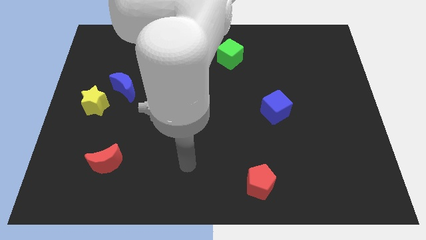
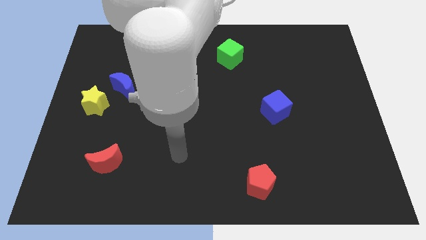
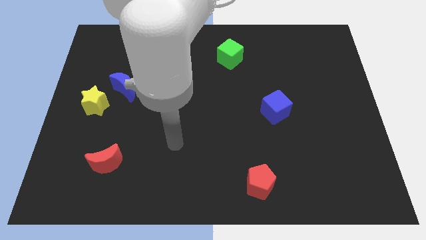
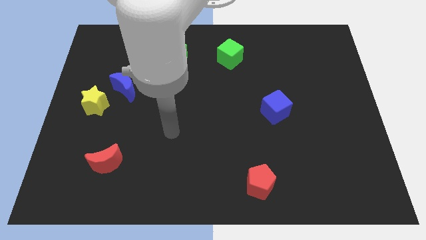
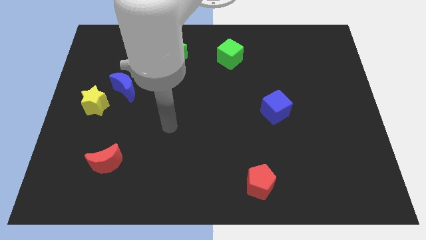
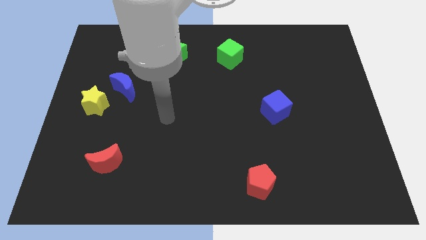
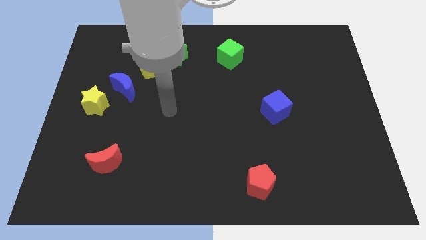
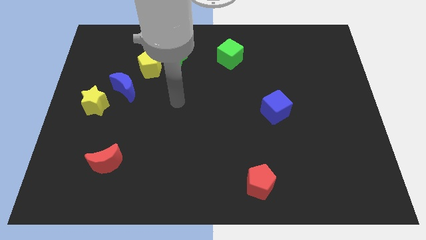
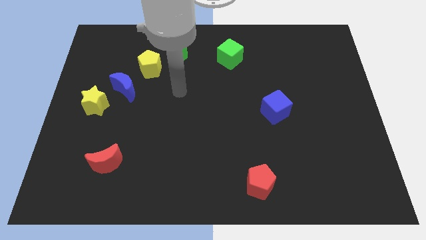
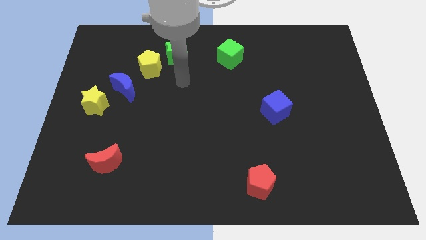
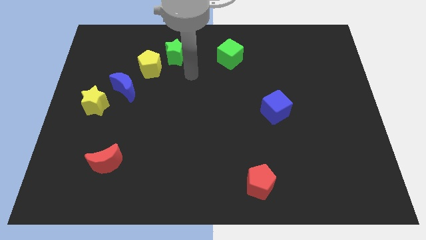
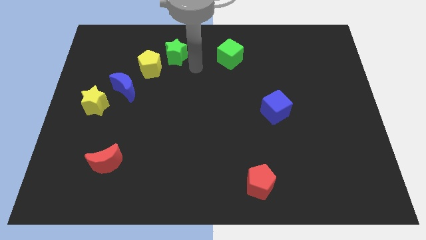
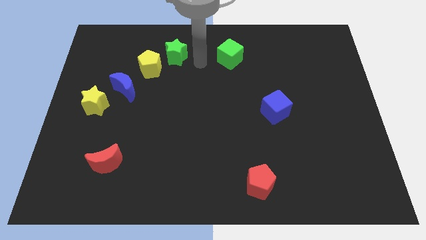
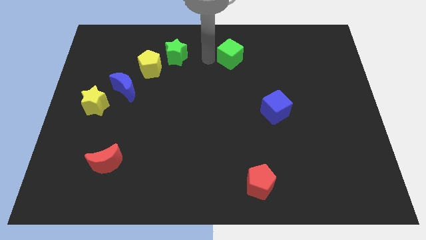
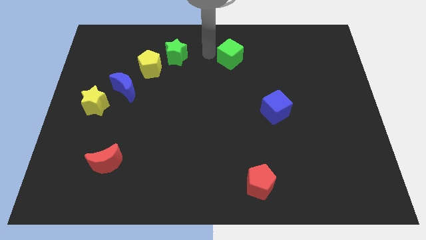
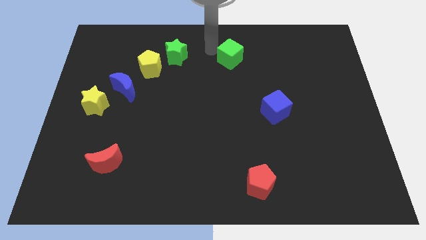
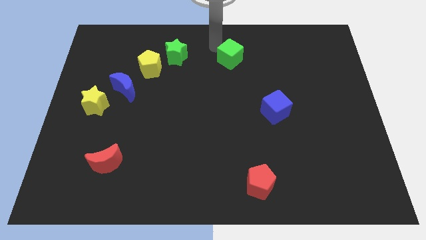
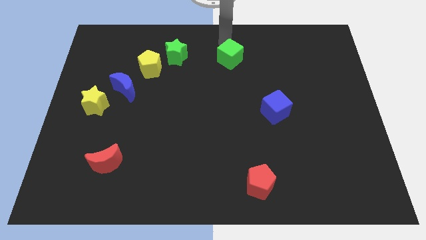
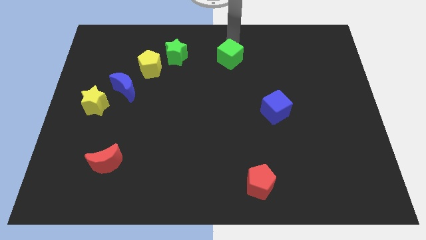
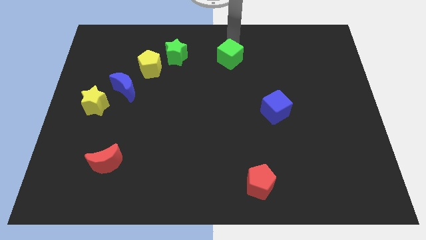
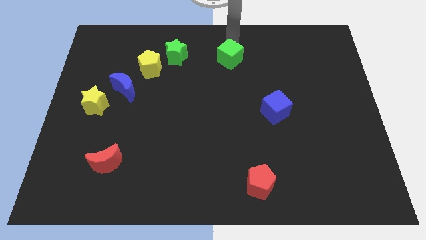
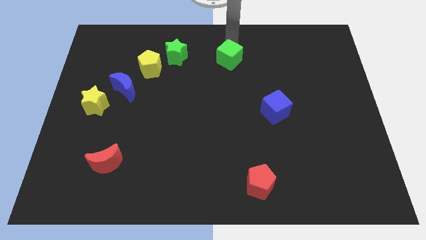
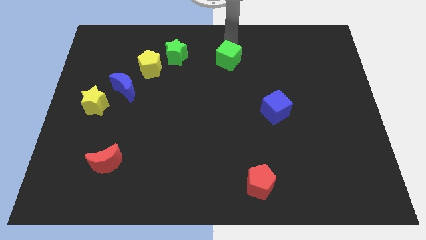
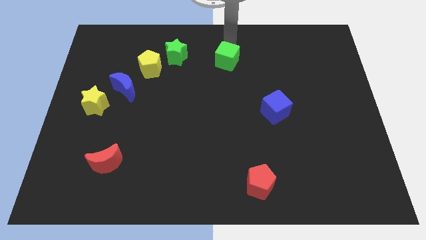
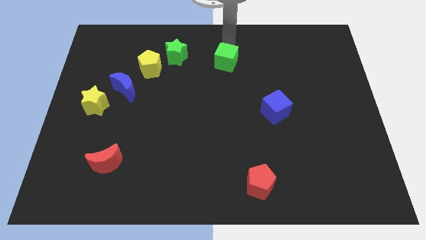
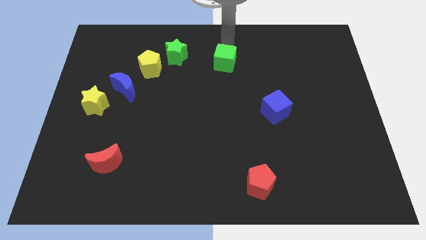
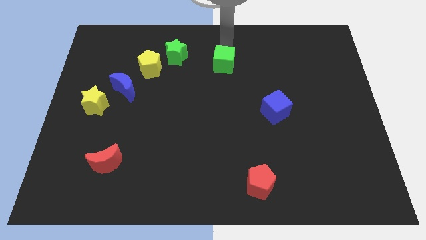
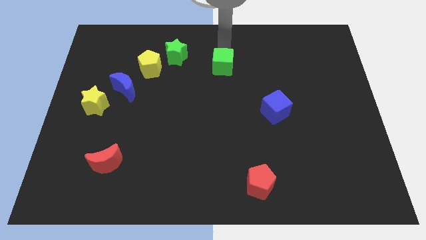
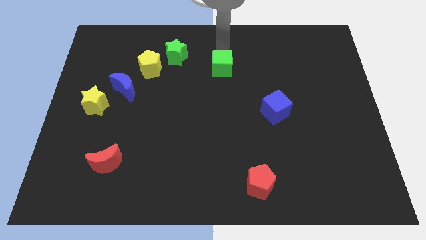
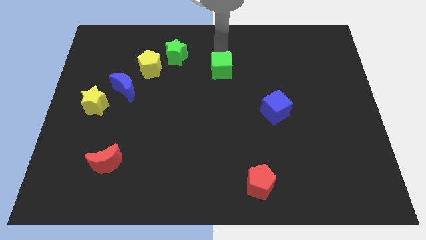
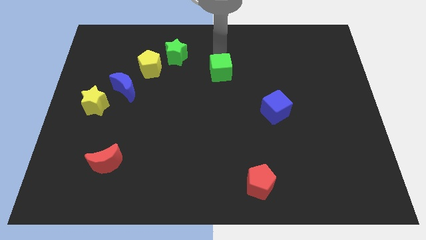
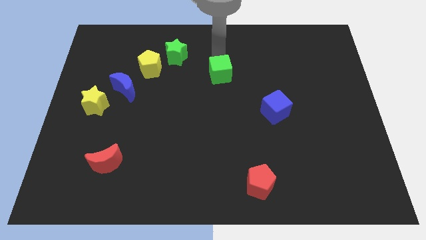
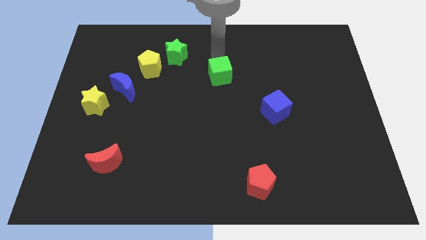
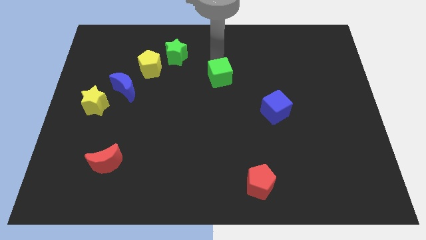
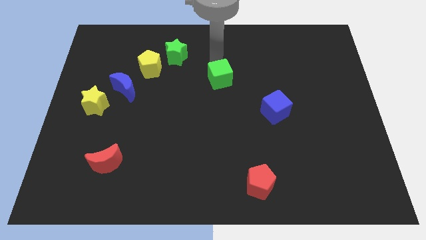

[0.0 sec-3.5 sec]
slightly slide the green cube down

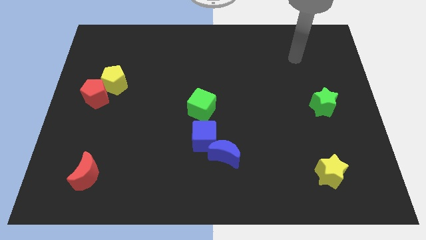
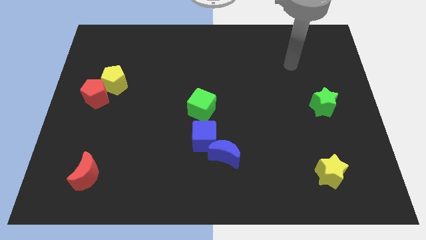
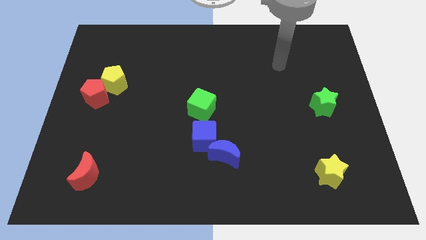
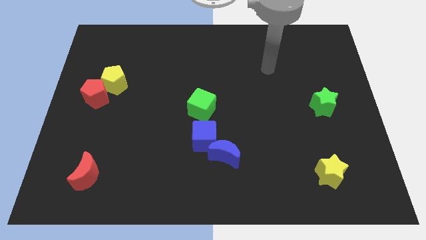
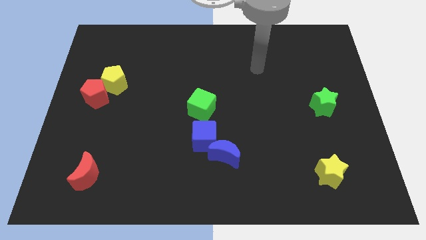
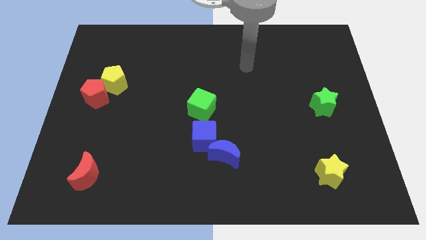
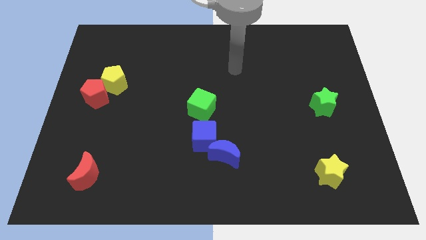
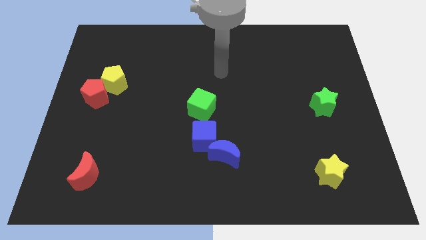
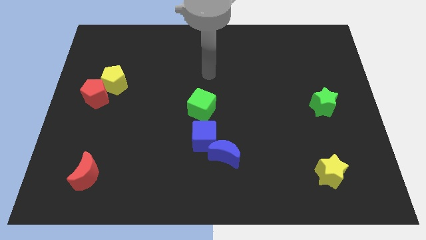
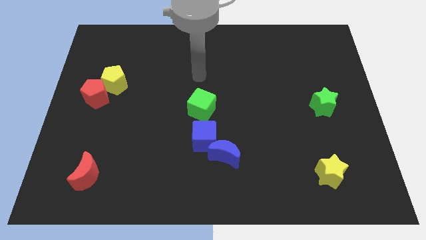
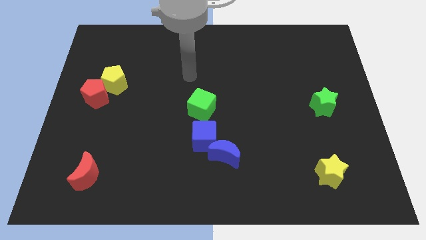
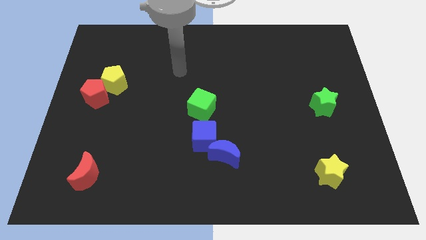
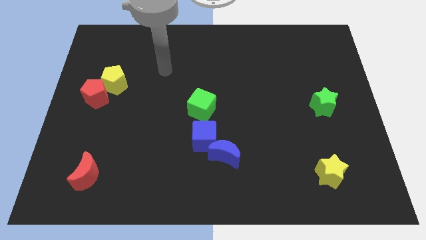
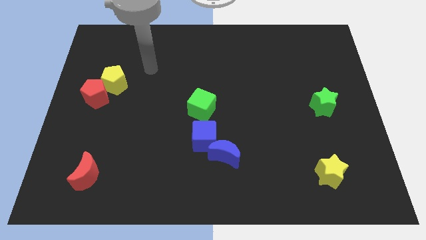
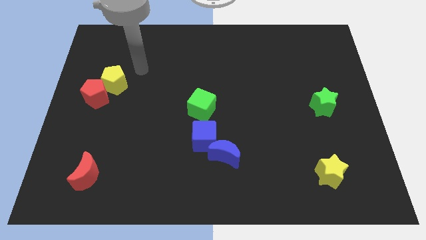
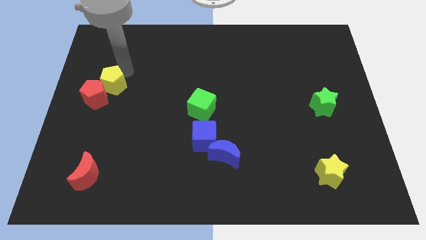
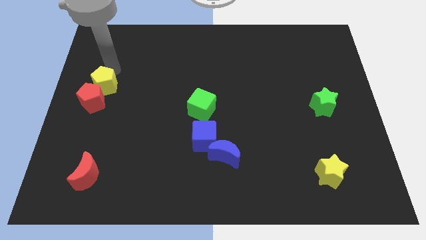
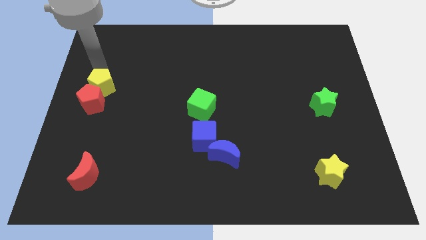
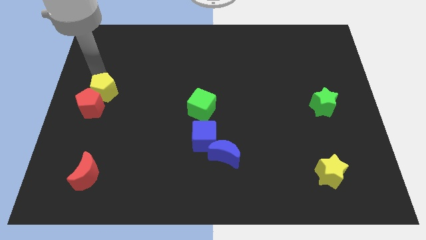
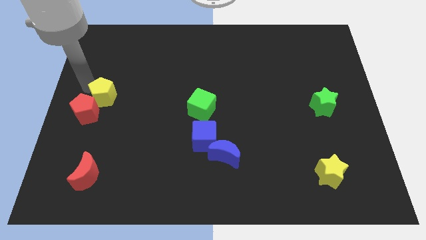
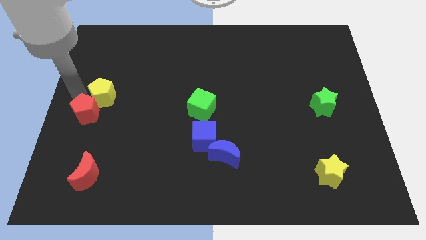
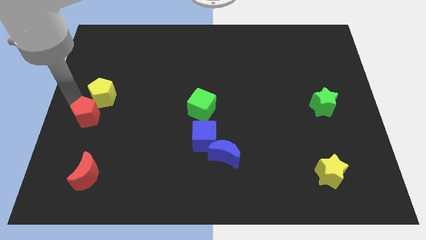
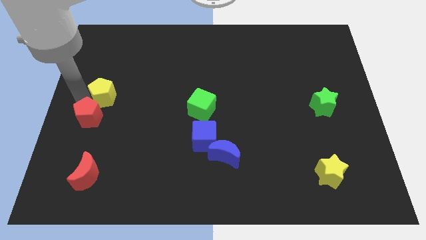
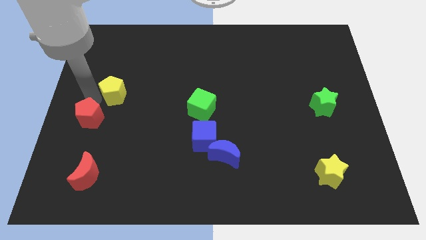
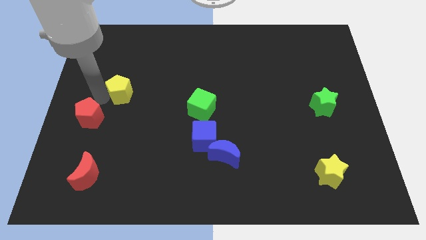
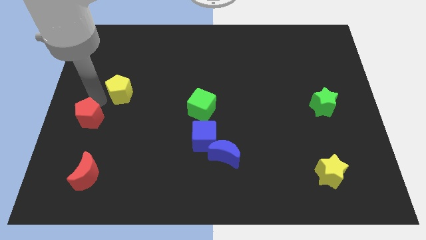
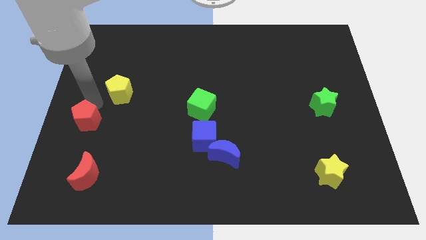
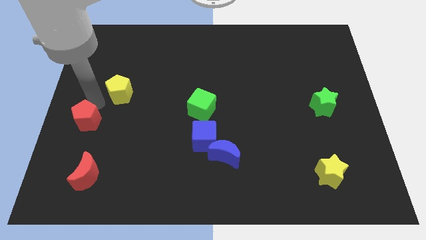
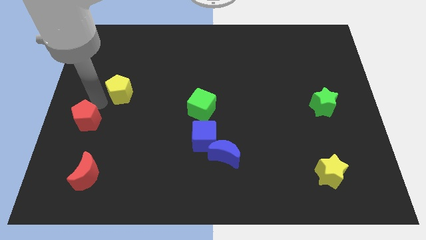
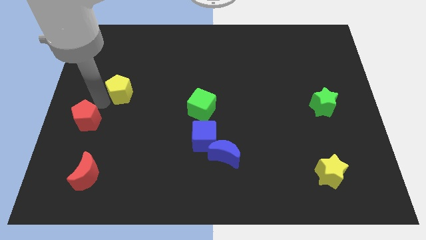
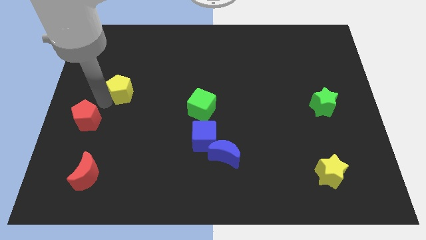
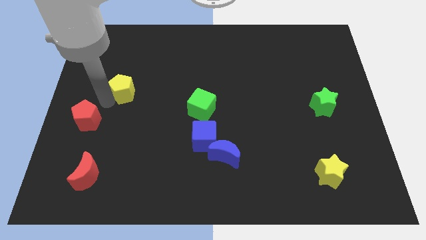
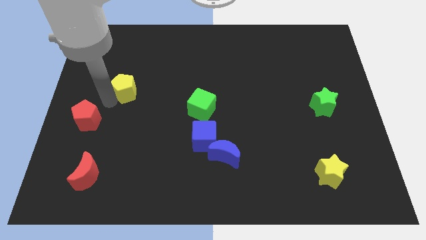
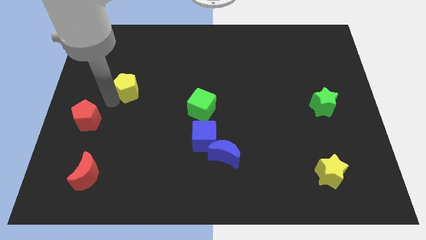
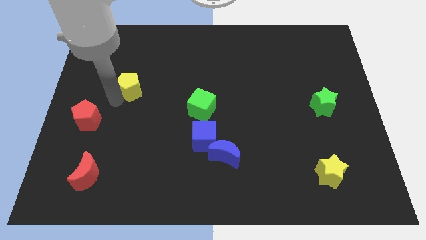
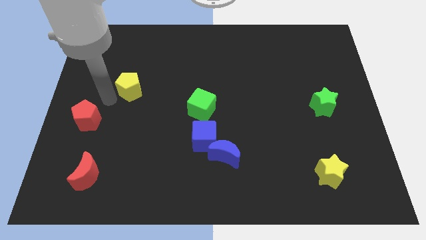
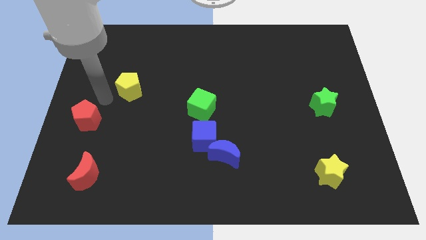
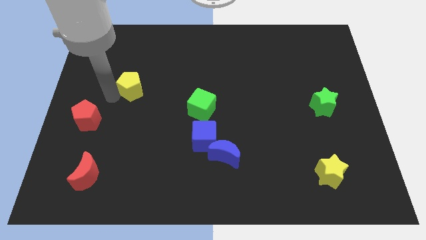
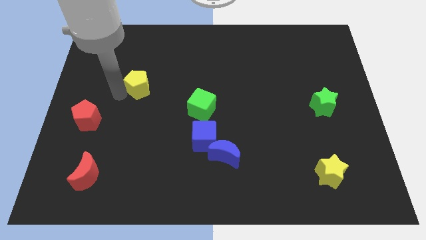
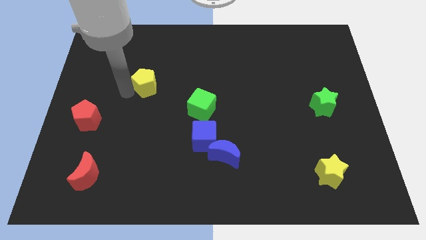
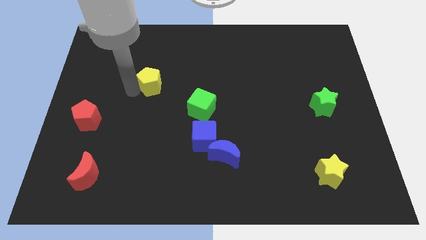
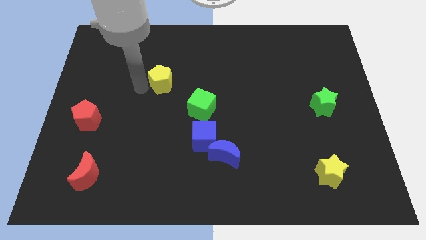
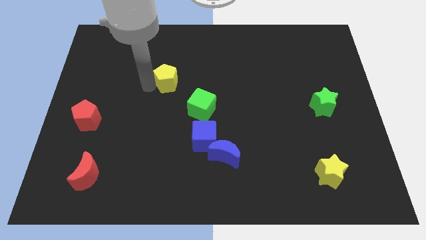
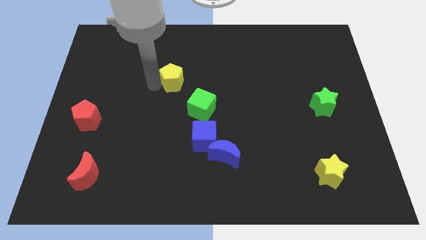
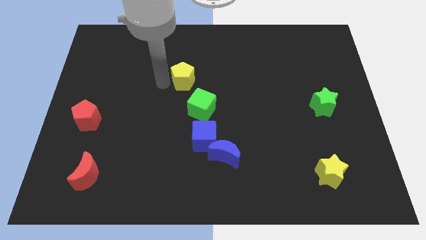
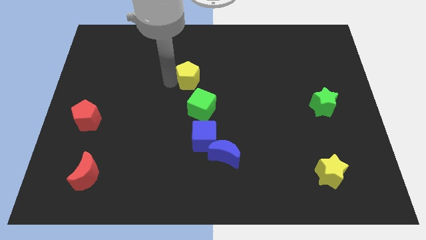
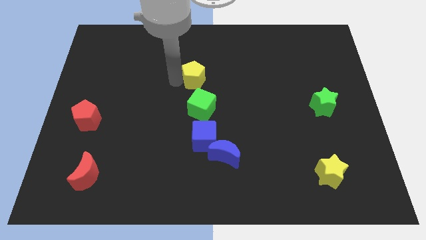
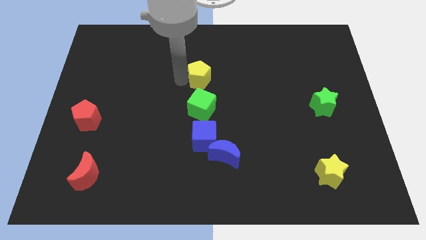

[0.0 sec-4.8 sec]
move the yellow pentagon right

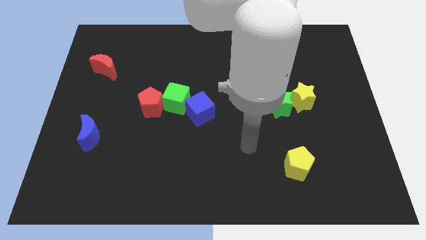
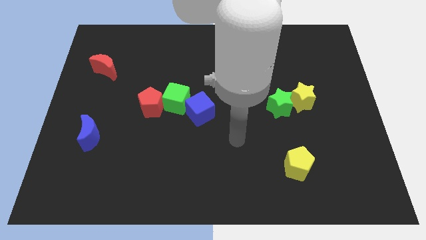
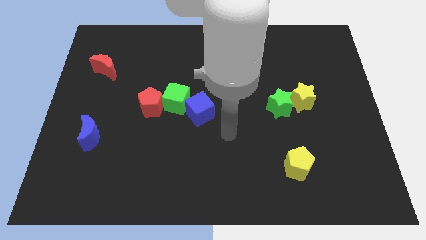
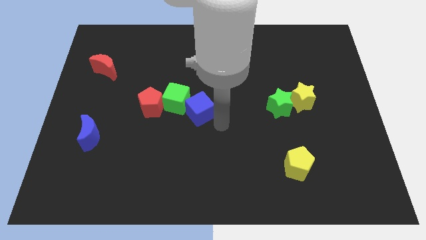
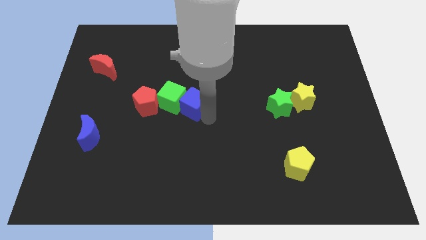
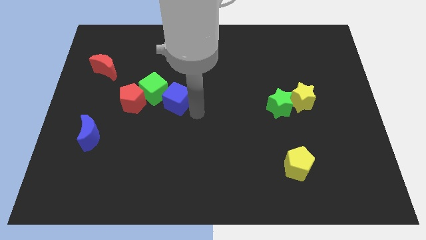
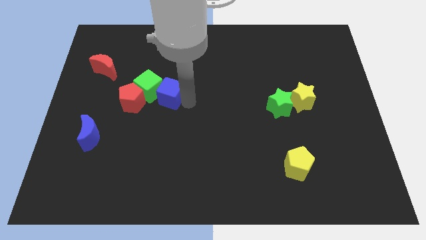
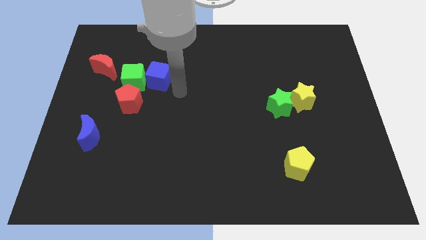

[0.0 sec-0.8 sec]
slightly push the green cube to the left
